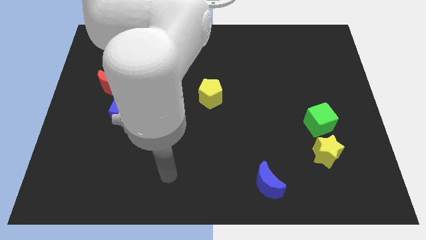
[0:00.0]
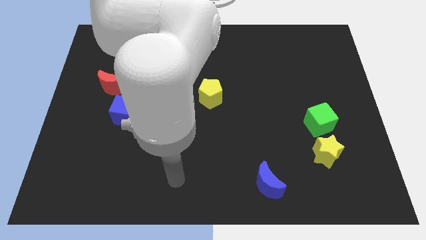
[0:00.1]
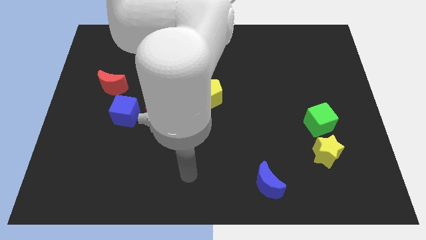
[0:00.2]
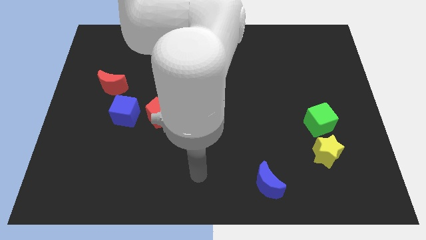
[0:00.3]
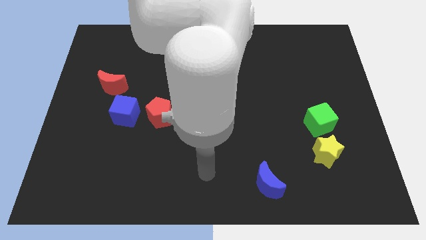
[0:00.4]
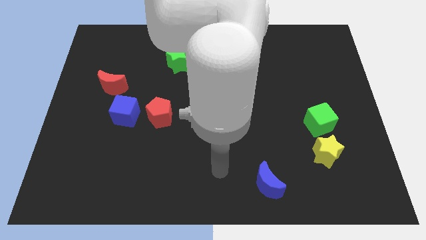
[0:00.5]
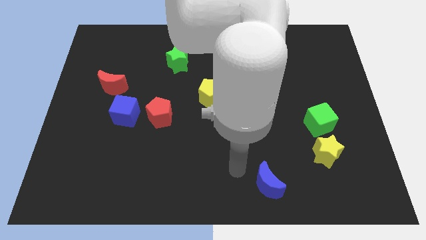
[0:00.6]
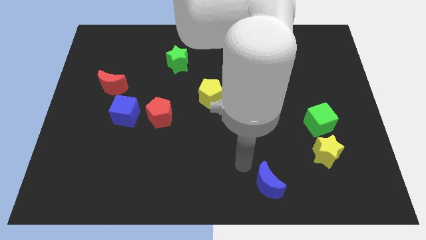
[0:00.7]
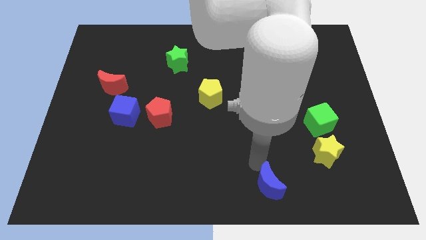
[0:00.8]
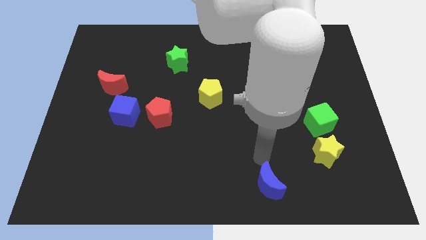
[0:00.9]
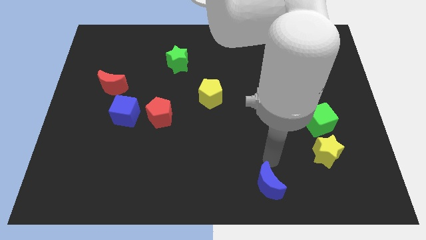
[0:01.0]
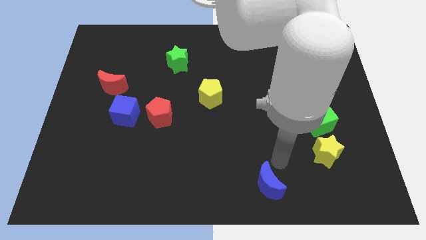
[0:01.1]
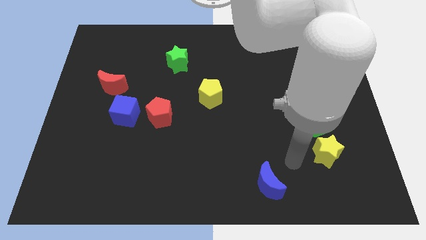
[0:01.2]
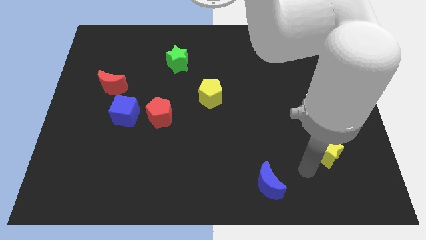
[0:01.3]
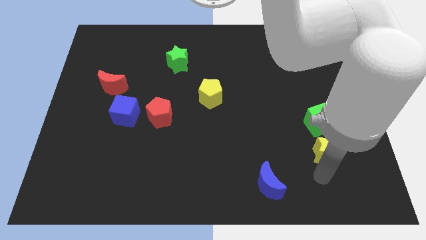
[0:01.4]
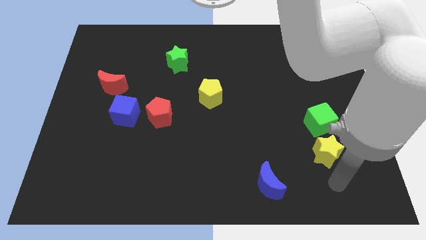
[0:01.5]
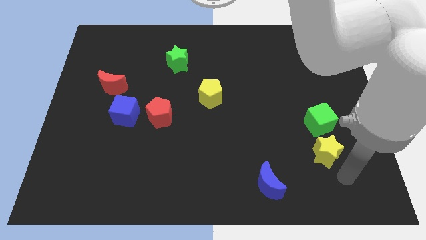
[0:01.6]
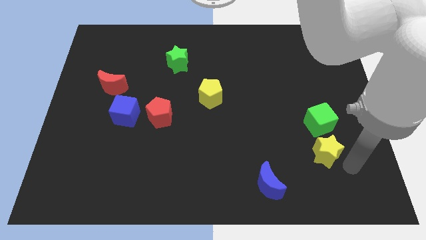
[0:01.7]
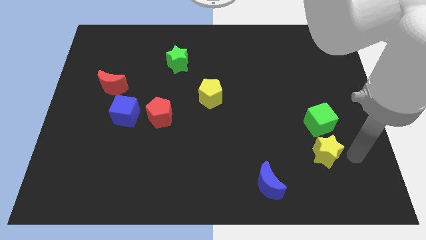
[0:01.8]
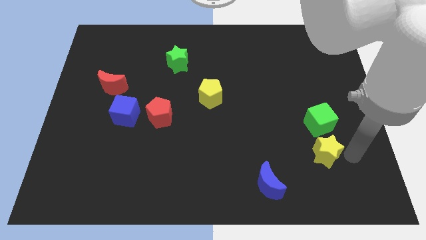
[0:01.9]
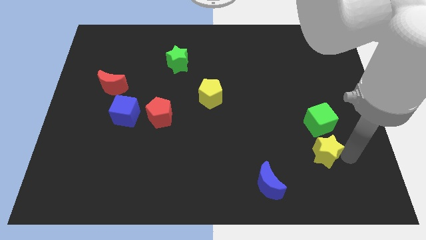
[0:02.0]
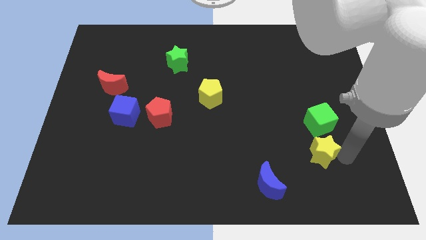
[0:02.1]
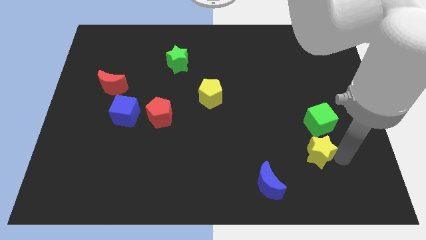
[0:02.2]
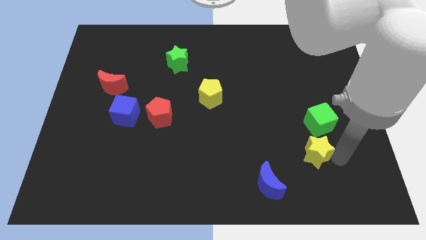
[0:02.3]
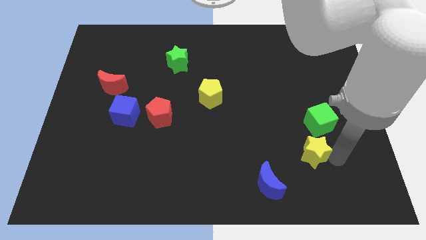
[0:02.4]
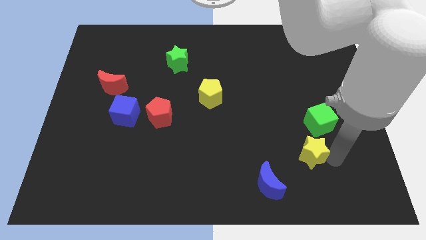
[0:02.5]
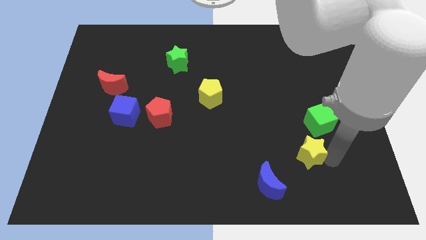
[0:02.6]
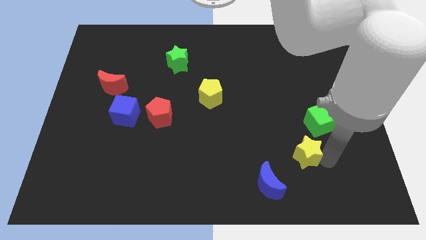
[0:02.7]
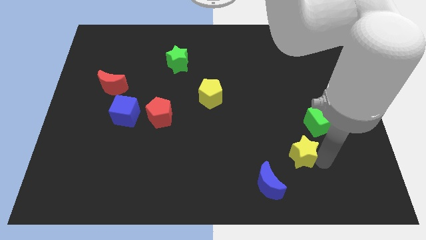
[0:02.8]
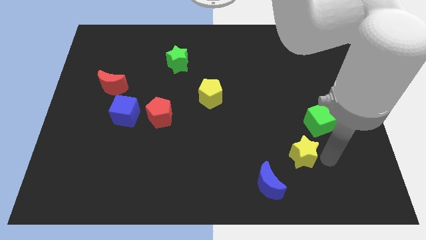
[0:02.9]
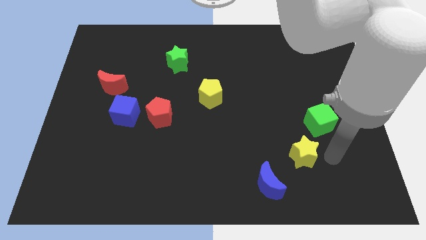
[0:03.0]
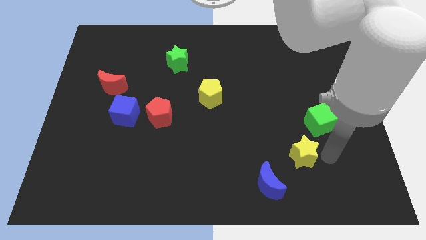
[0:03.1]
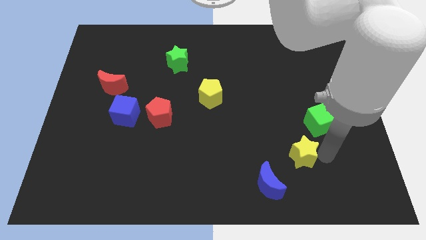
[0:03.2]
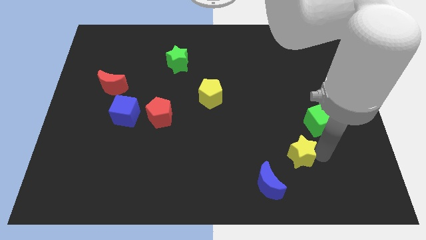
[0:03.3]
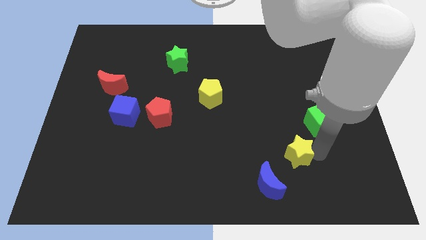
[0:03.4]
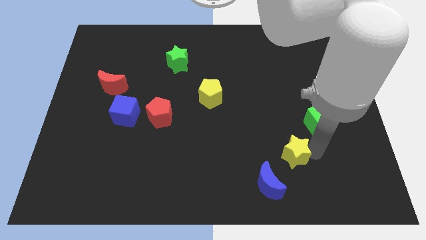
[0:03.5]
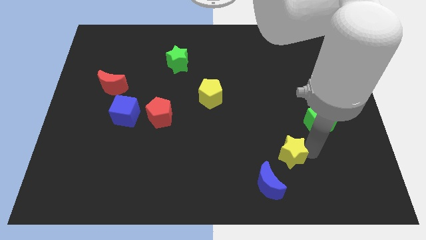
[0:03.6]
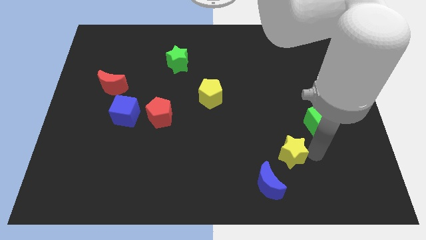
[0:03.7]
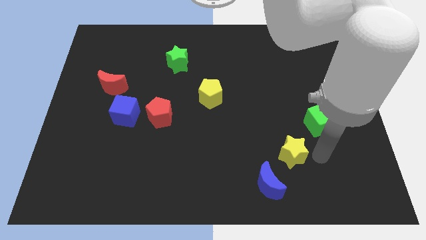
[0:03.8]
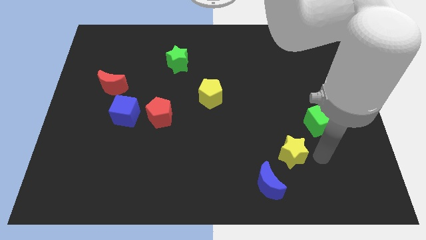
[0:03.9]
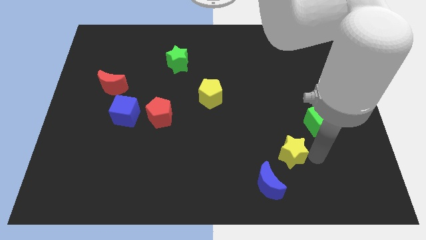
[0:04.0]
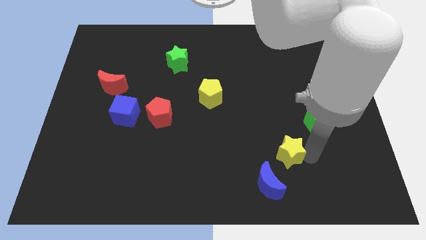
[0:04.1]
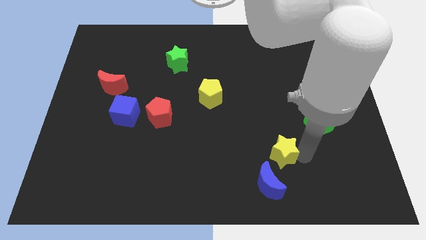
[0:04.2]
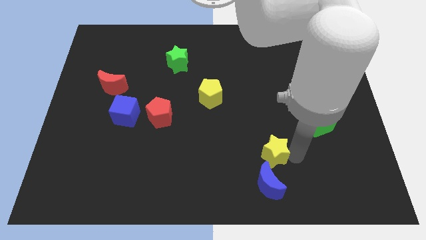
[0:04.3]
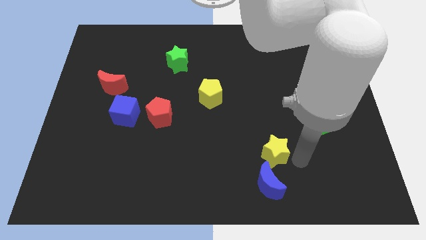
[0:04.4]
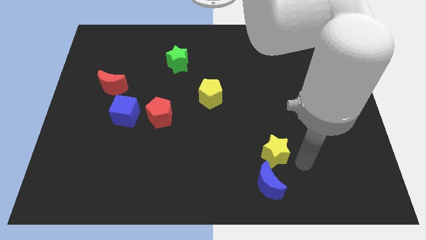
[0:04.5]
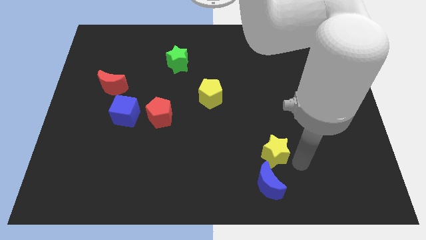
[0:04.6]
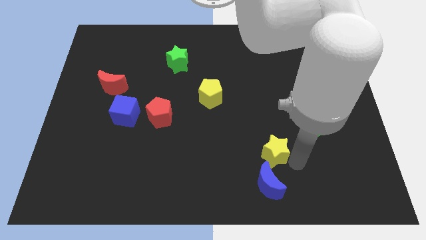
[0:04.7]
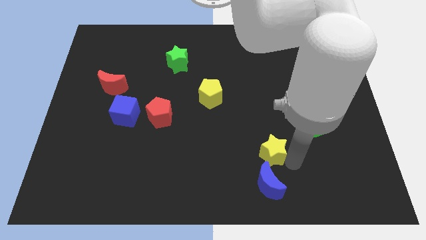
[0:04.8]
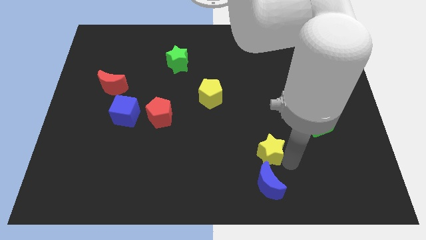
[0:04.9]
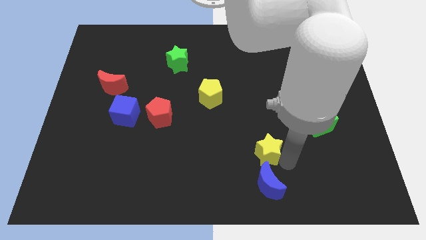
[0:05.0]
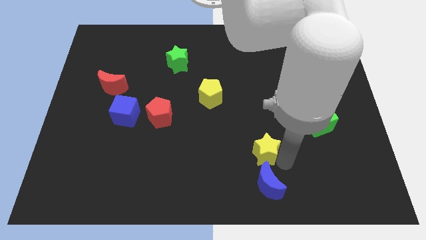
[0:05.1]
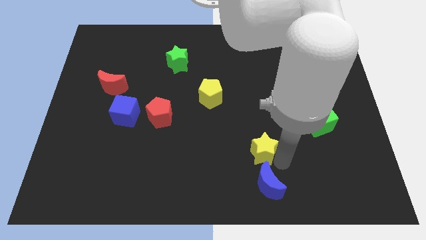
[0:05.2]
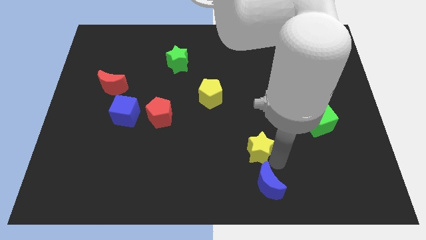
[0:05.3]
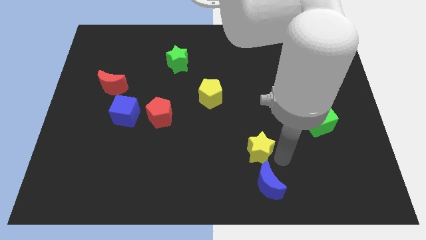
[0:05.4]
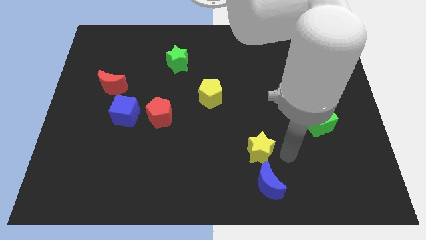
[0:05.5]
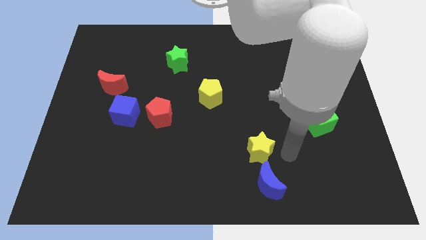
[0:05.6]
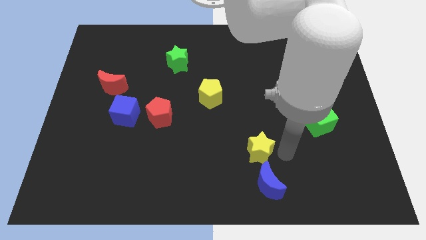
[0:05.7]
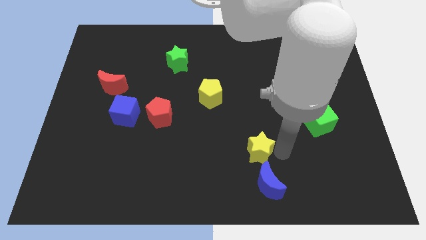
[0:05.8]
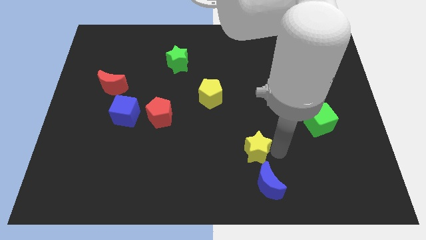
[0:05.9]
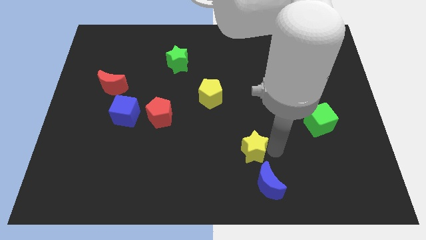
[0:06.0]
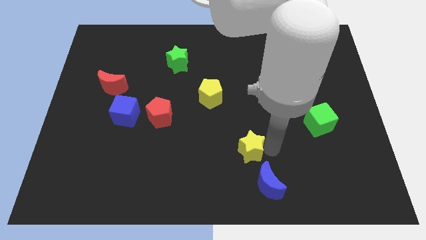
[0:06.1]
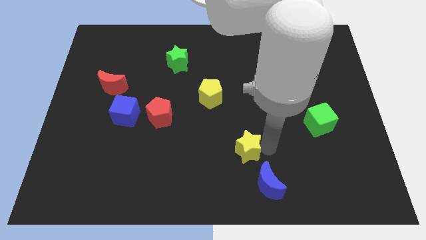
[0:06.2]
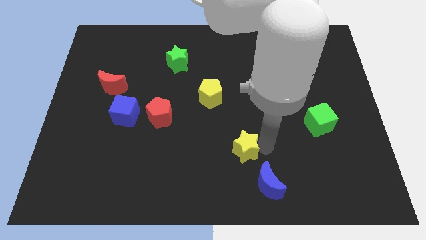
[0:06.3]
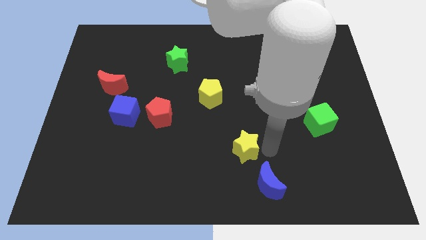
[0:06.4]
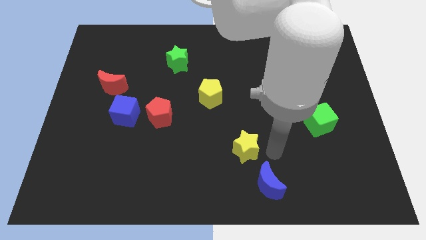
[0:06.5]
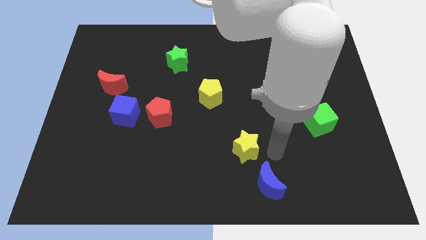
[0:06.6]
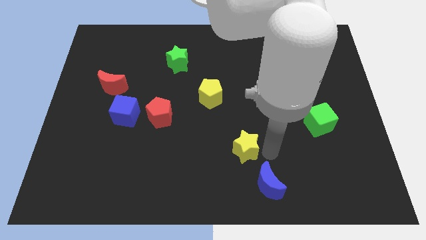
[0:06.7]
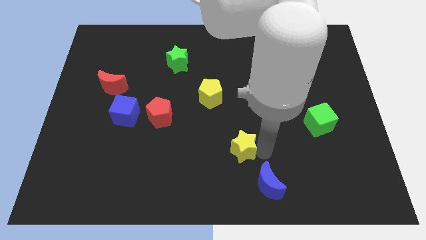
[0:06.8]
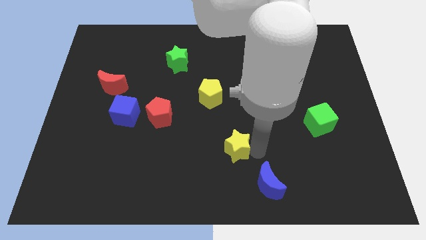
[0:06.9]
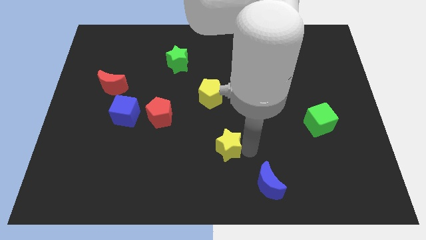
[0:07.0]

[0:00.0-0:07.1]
slide the yellow star left

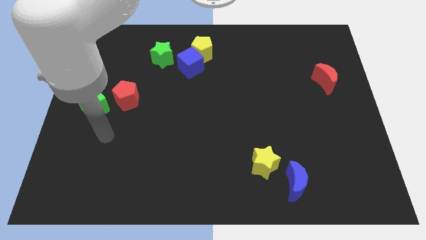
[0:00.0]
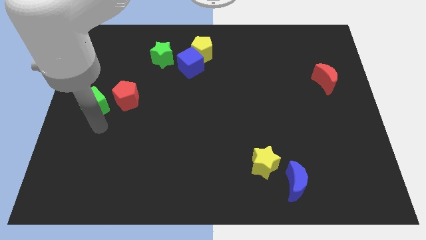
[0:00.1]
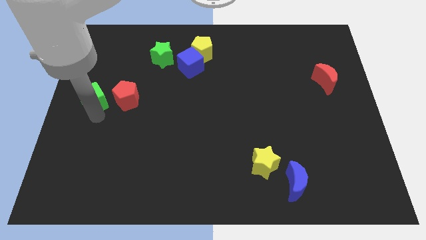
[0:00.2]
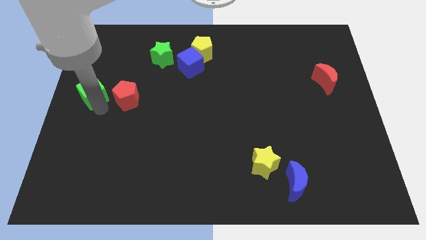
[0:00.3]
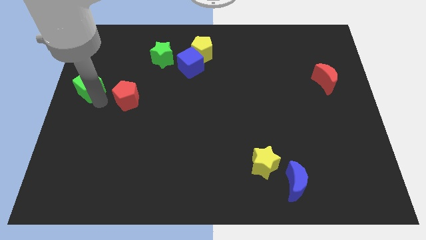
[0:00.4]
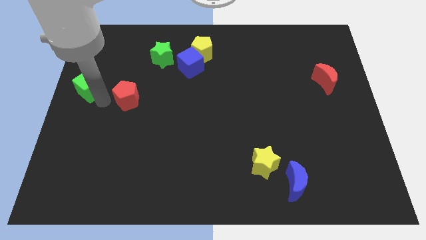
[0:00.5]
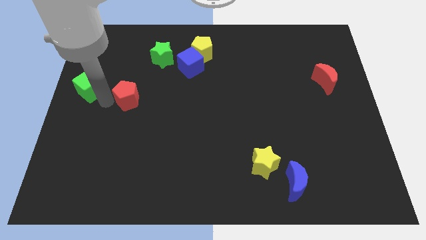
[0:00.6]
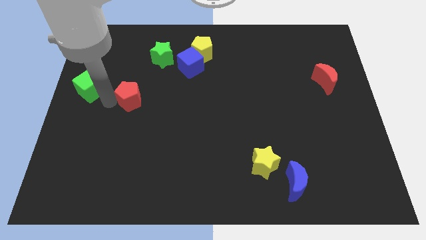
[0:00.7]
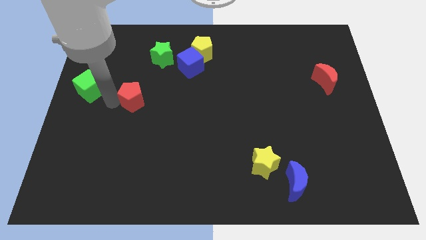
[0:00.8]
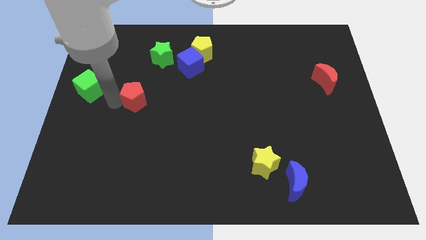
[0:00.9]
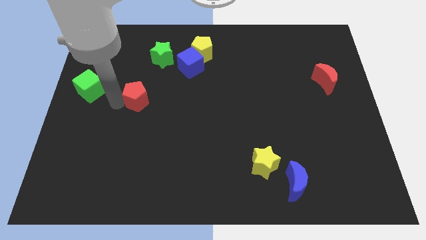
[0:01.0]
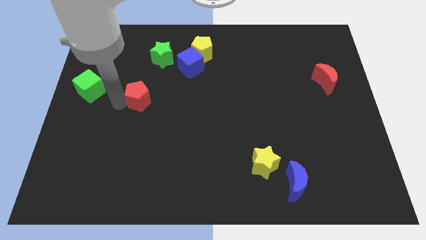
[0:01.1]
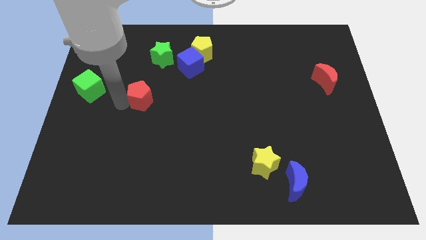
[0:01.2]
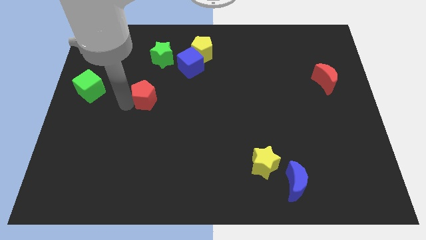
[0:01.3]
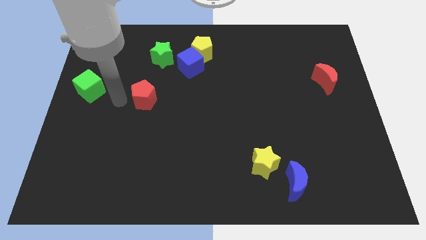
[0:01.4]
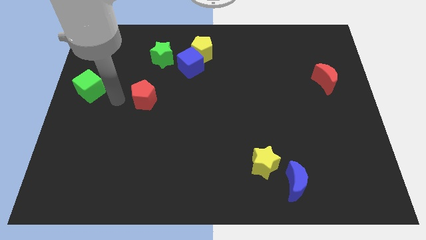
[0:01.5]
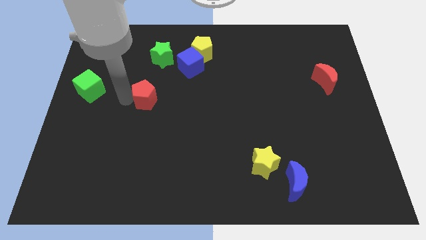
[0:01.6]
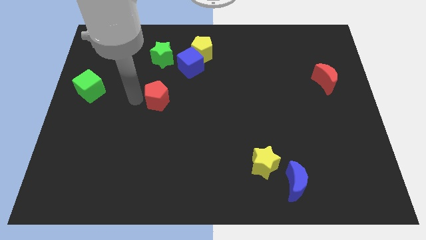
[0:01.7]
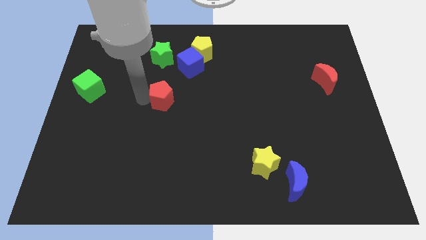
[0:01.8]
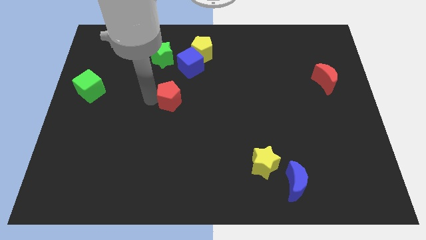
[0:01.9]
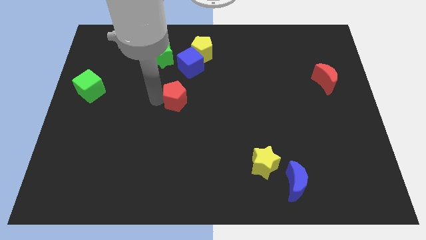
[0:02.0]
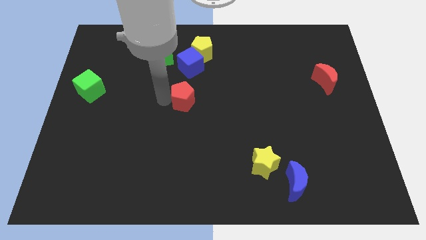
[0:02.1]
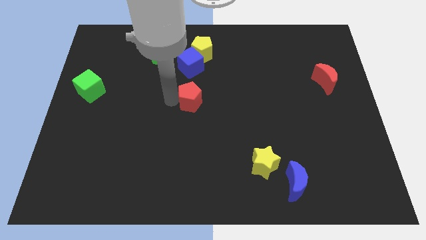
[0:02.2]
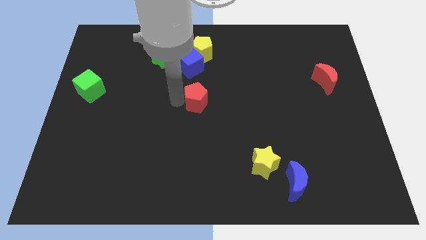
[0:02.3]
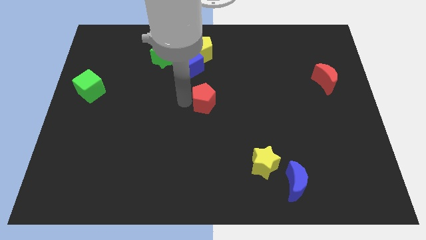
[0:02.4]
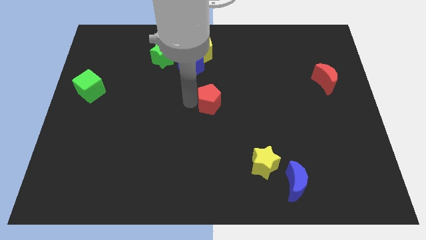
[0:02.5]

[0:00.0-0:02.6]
slide the red pentagon to the right
